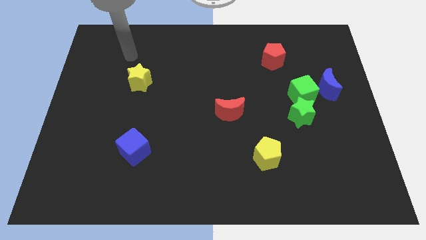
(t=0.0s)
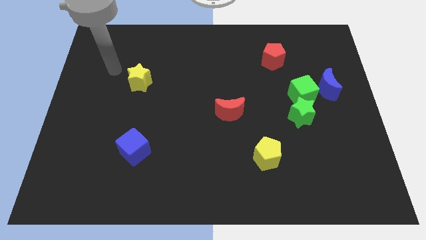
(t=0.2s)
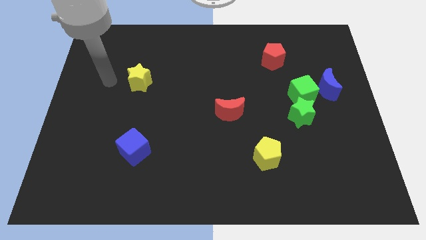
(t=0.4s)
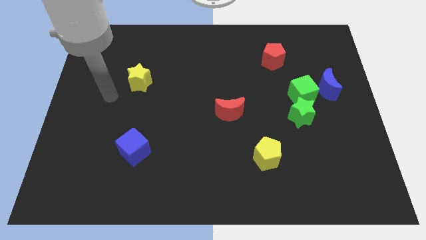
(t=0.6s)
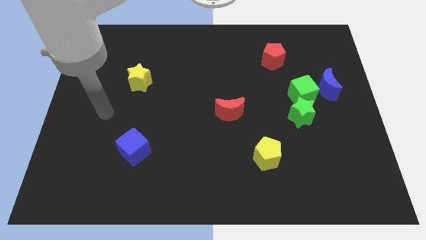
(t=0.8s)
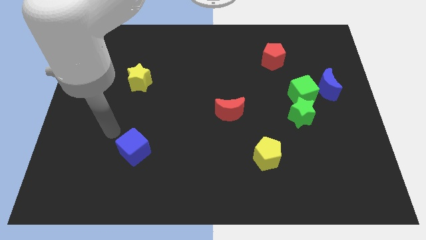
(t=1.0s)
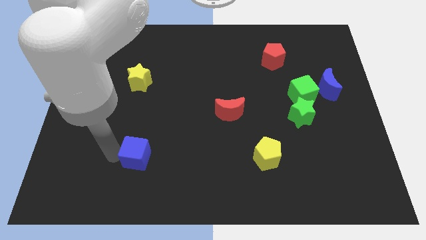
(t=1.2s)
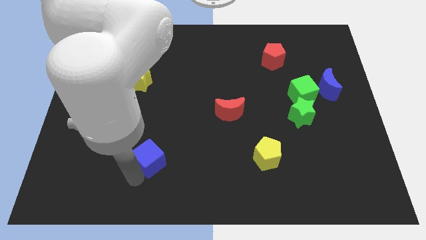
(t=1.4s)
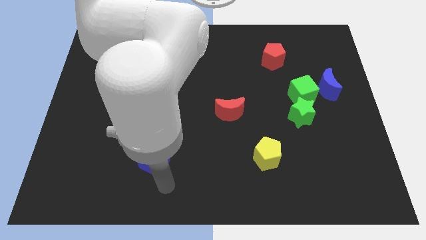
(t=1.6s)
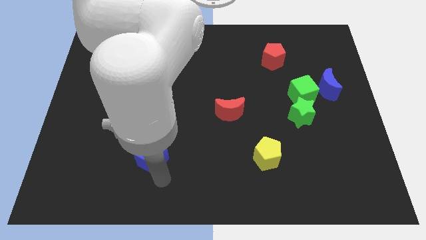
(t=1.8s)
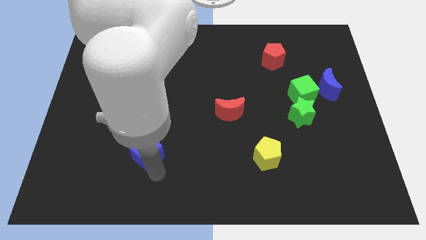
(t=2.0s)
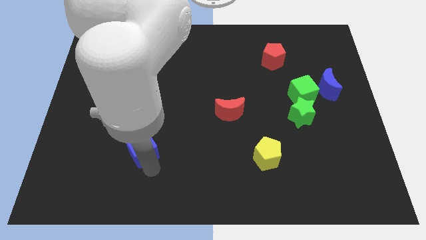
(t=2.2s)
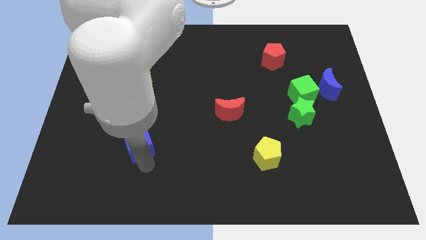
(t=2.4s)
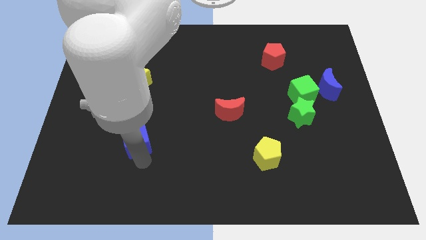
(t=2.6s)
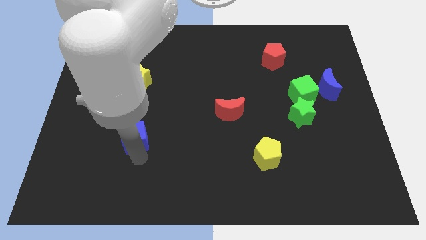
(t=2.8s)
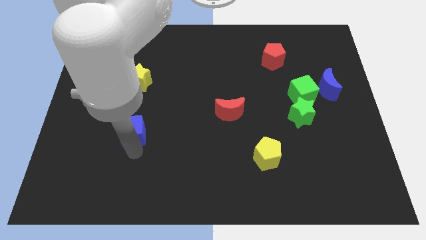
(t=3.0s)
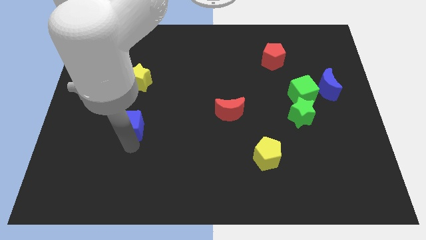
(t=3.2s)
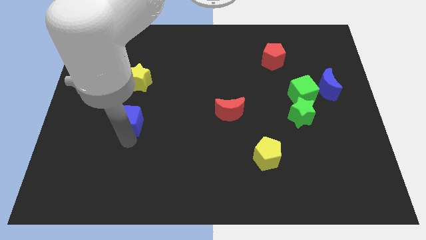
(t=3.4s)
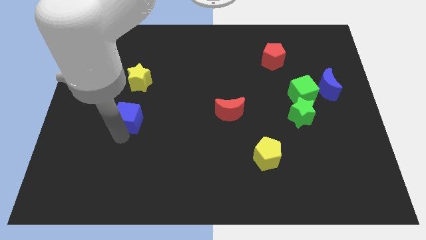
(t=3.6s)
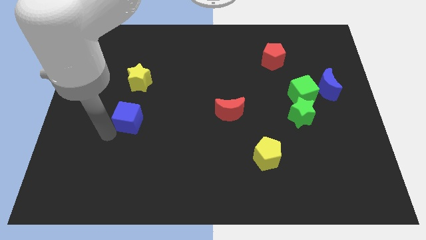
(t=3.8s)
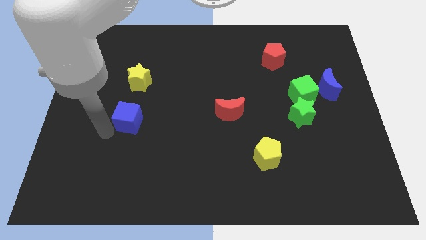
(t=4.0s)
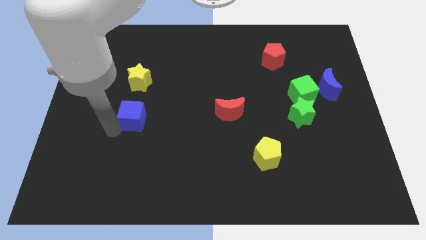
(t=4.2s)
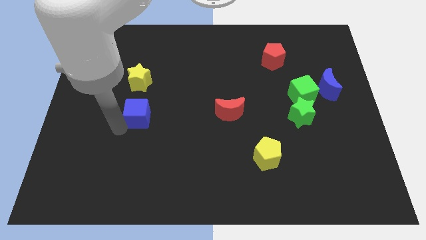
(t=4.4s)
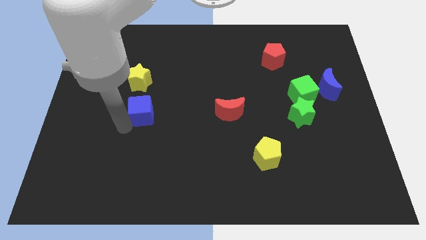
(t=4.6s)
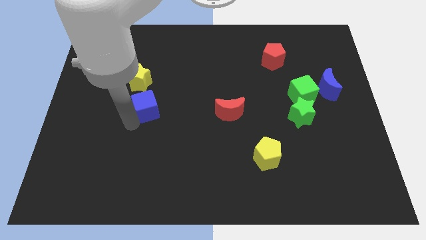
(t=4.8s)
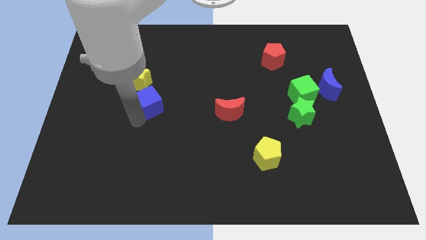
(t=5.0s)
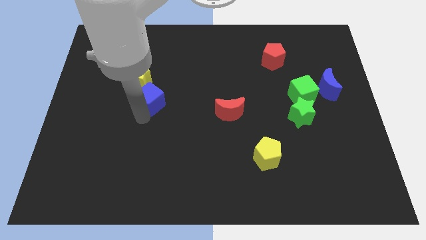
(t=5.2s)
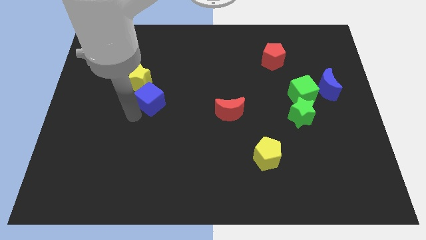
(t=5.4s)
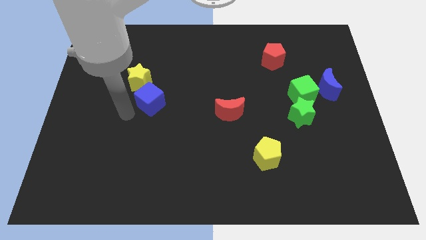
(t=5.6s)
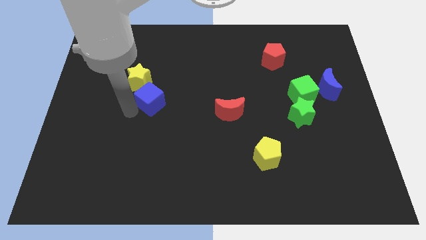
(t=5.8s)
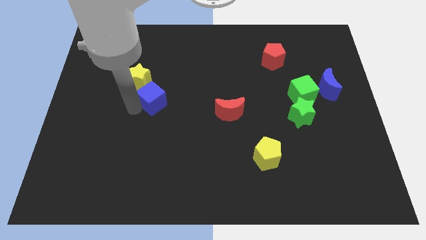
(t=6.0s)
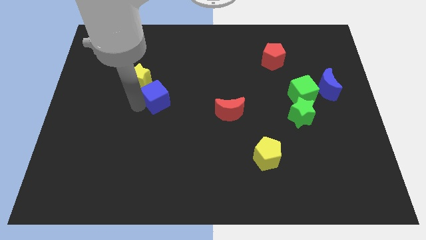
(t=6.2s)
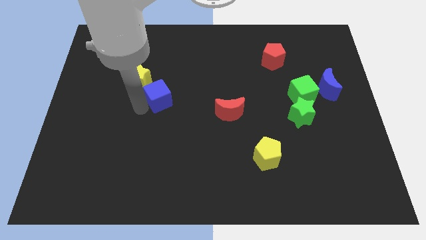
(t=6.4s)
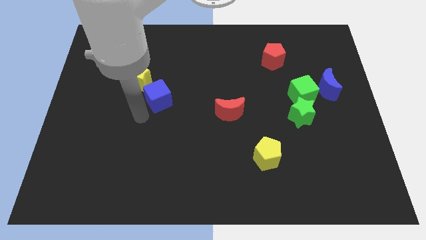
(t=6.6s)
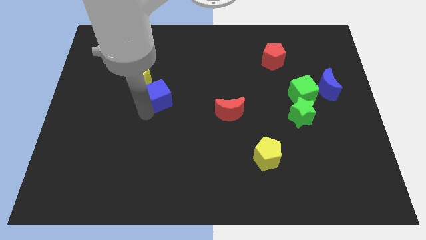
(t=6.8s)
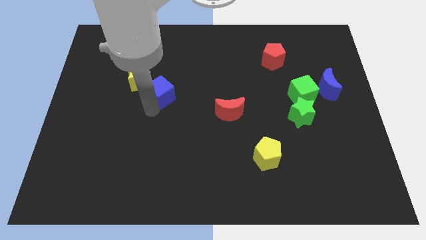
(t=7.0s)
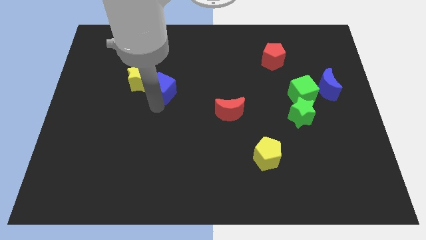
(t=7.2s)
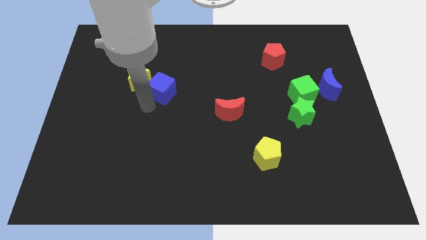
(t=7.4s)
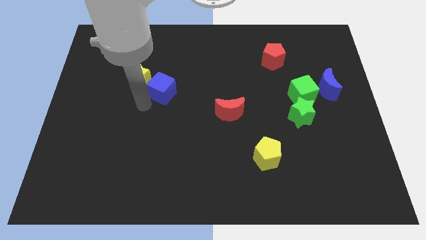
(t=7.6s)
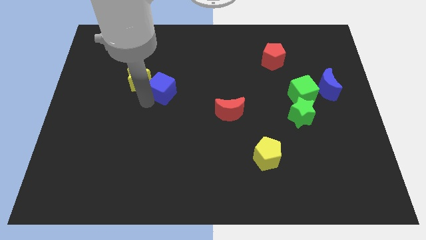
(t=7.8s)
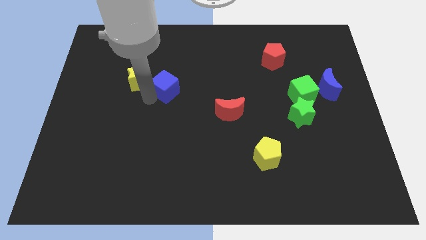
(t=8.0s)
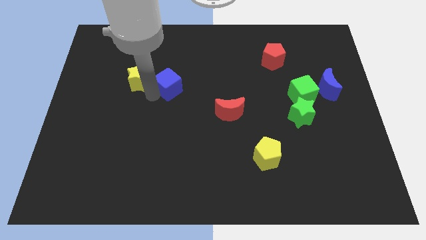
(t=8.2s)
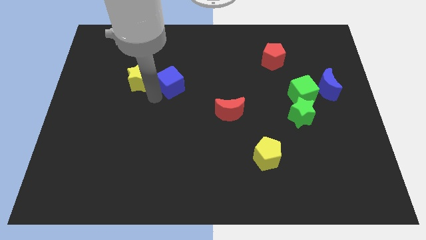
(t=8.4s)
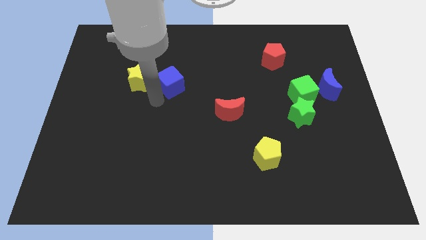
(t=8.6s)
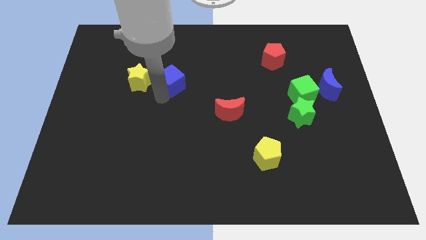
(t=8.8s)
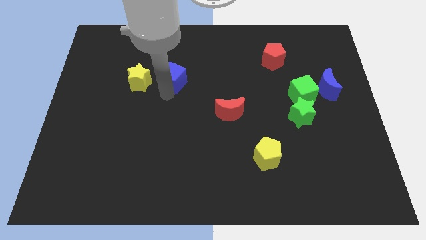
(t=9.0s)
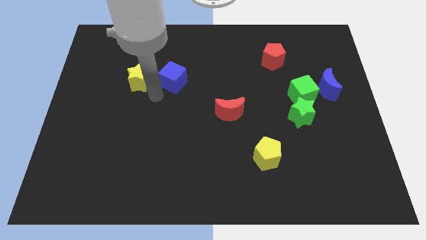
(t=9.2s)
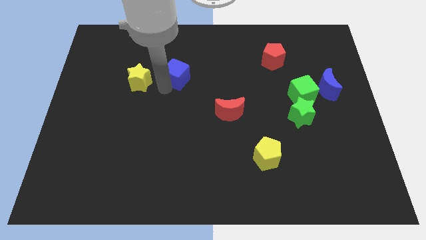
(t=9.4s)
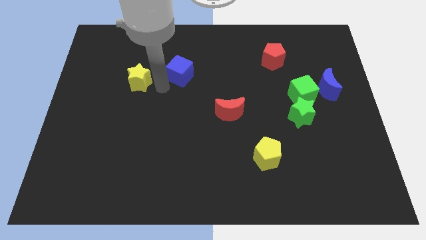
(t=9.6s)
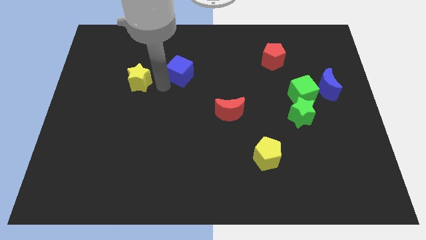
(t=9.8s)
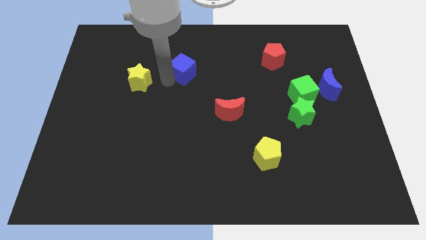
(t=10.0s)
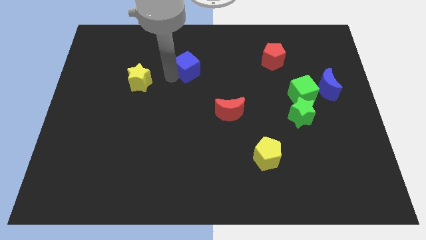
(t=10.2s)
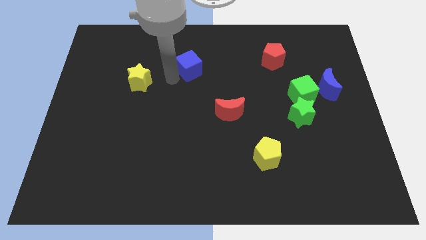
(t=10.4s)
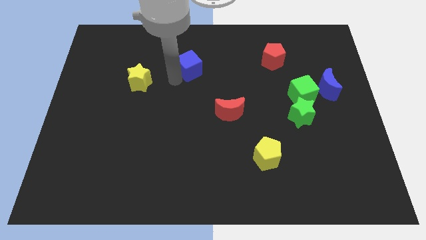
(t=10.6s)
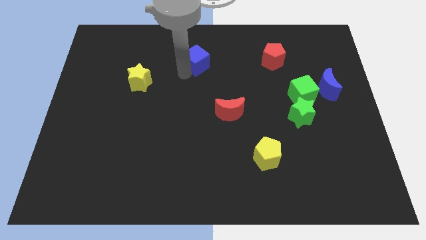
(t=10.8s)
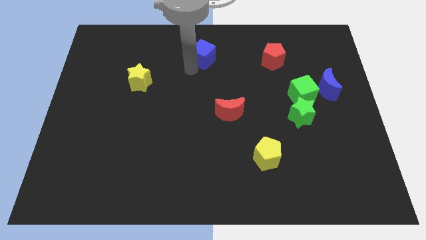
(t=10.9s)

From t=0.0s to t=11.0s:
slide the blue cube to the top

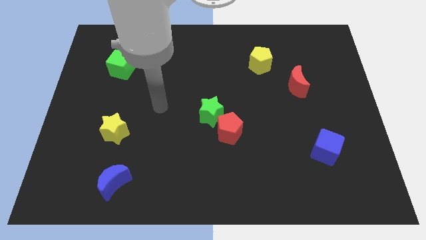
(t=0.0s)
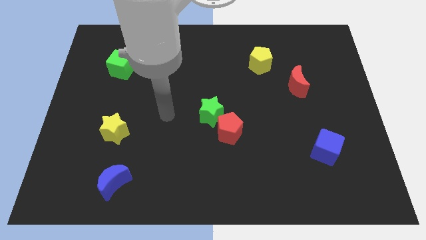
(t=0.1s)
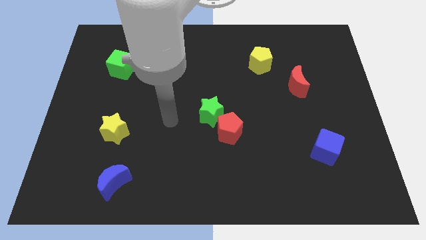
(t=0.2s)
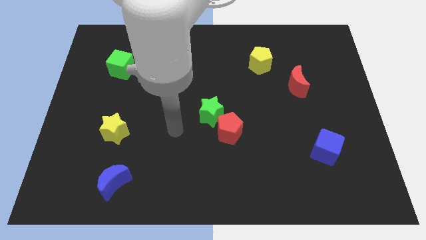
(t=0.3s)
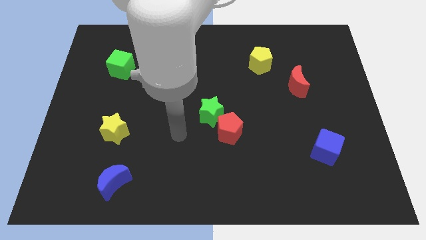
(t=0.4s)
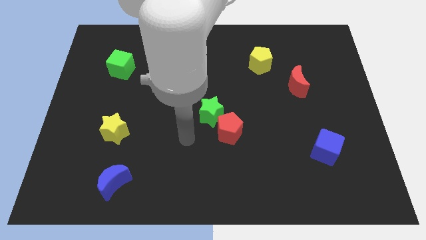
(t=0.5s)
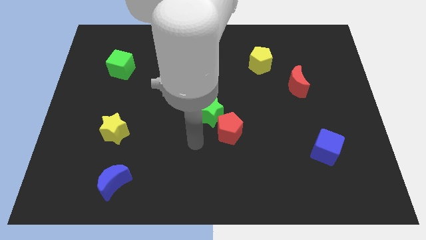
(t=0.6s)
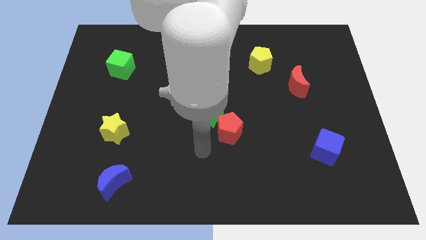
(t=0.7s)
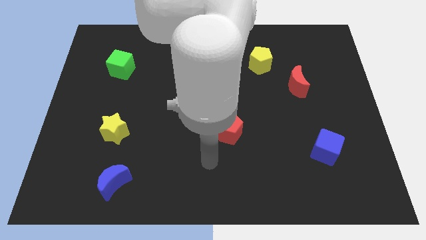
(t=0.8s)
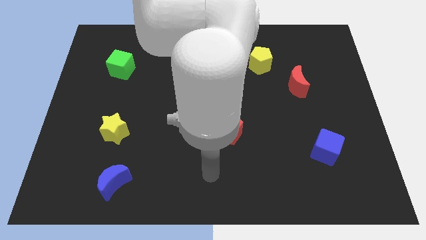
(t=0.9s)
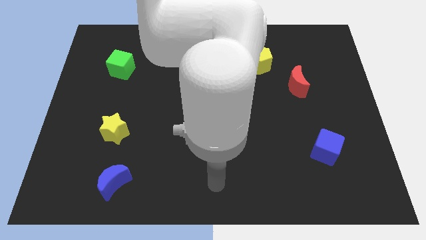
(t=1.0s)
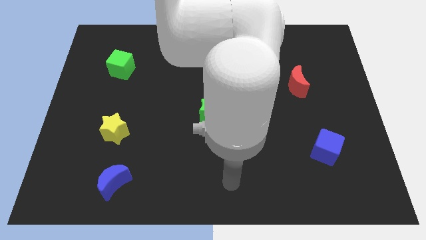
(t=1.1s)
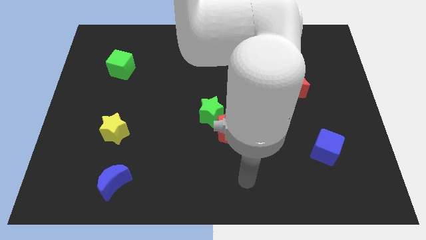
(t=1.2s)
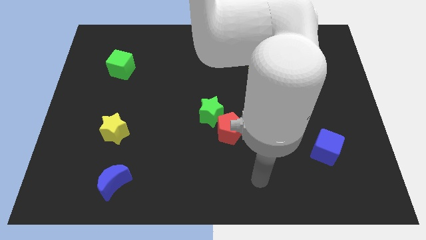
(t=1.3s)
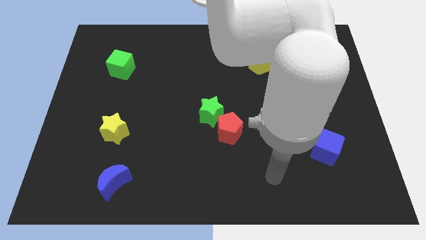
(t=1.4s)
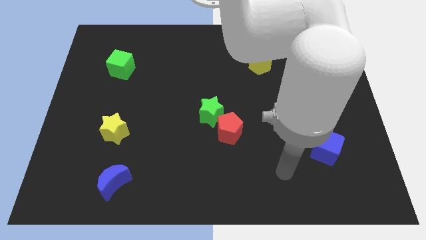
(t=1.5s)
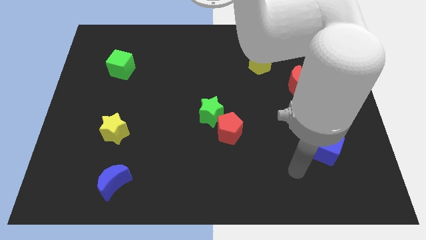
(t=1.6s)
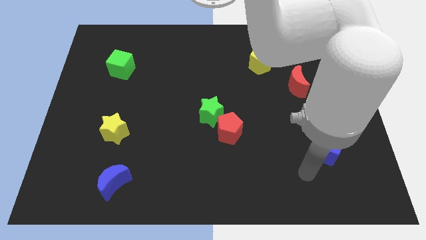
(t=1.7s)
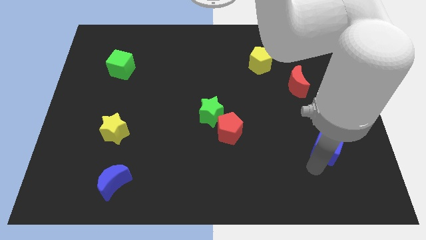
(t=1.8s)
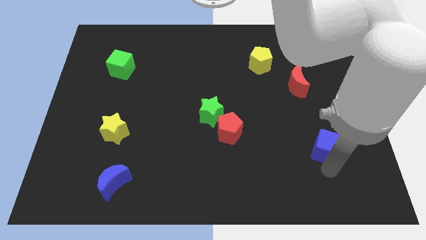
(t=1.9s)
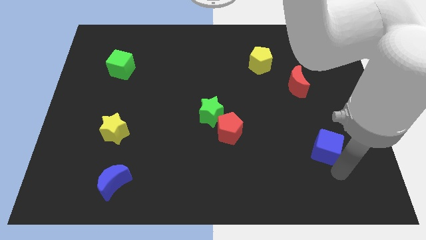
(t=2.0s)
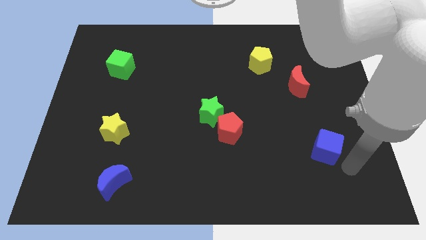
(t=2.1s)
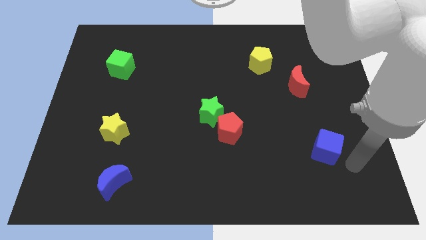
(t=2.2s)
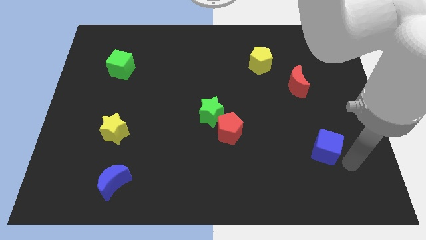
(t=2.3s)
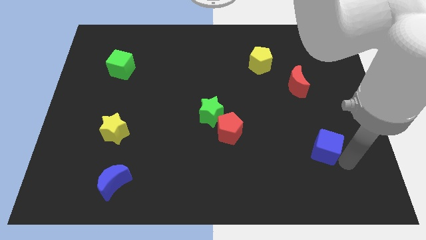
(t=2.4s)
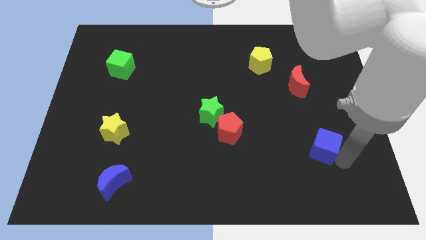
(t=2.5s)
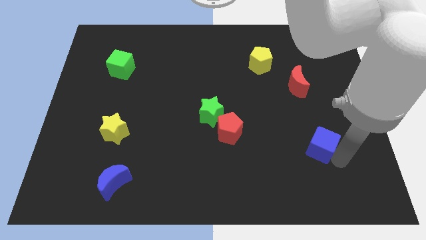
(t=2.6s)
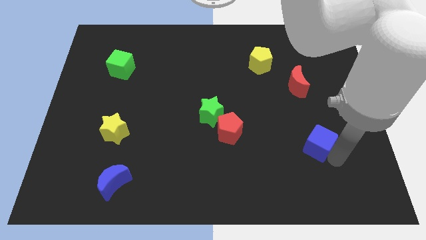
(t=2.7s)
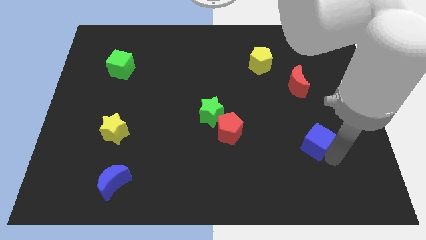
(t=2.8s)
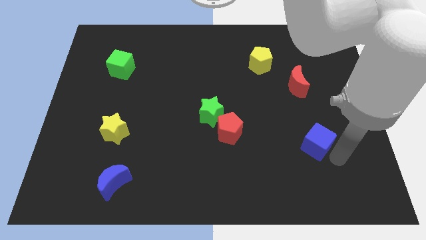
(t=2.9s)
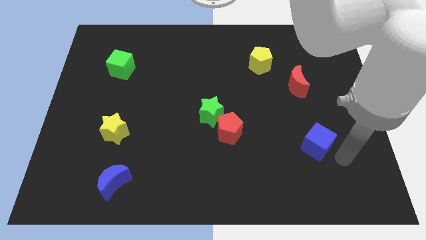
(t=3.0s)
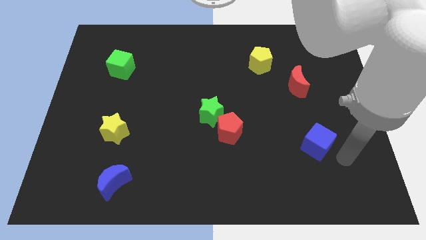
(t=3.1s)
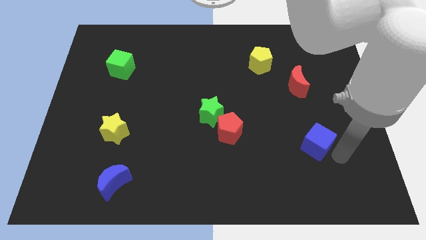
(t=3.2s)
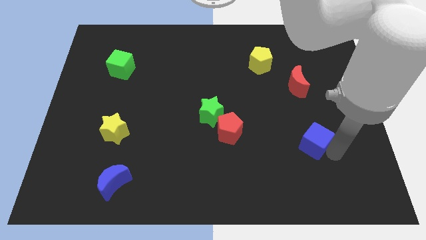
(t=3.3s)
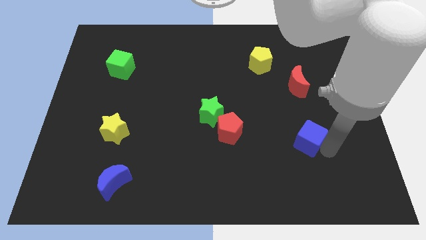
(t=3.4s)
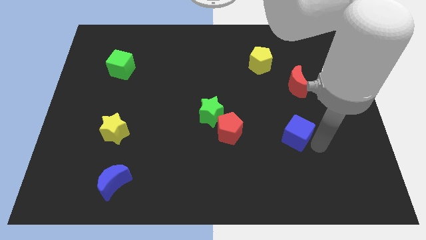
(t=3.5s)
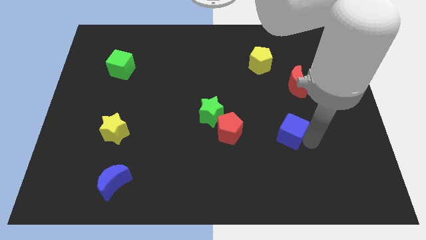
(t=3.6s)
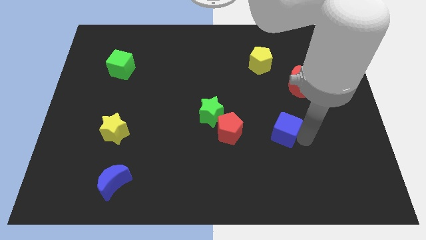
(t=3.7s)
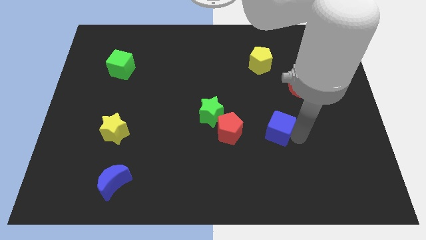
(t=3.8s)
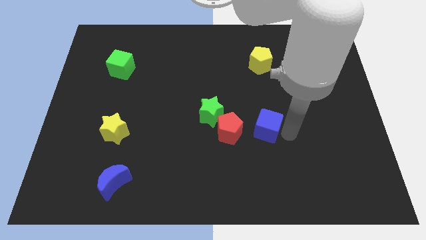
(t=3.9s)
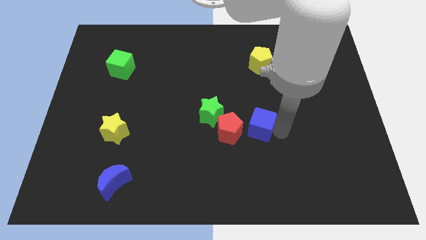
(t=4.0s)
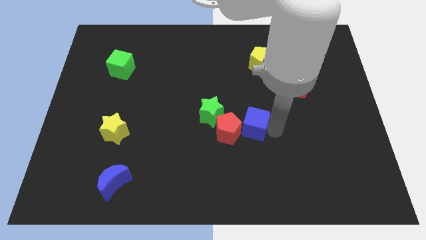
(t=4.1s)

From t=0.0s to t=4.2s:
slide the blue cube to the middle of the board
